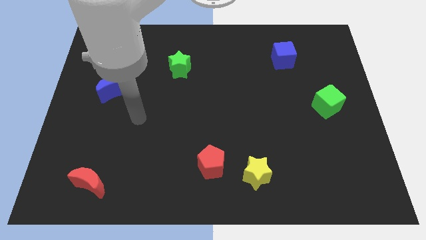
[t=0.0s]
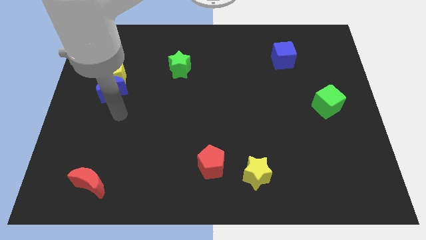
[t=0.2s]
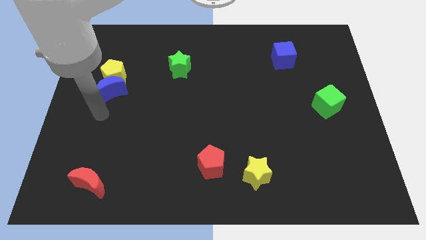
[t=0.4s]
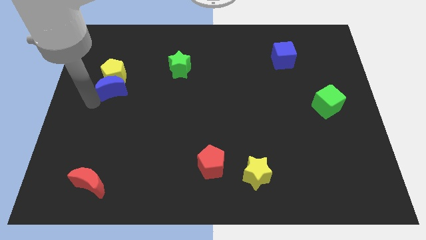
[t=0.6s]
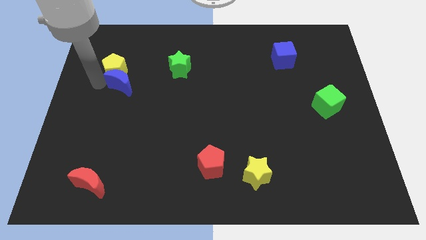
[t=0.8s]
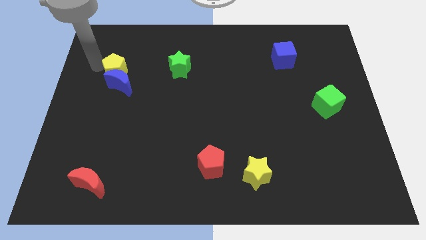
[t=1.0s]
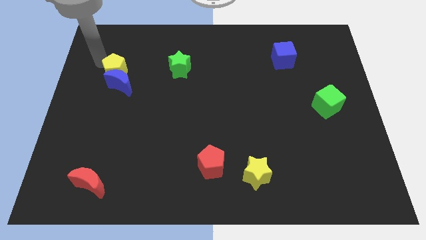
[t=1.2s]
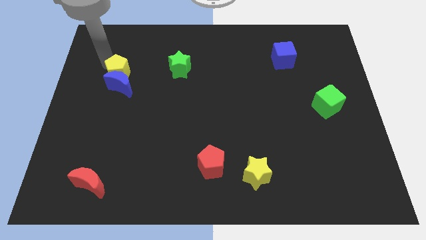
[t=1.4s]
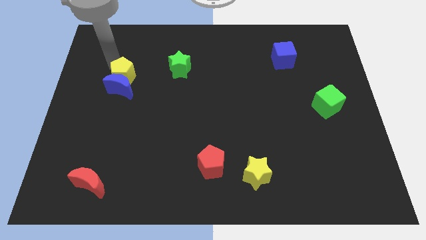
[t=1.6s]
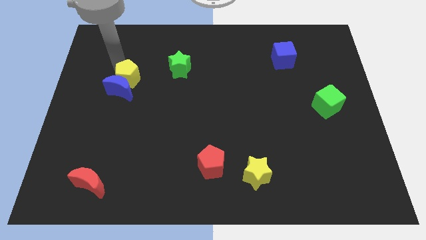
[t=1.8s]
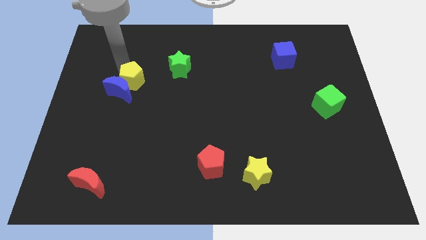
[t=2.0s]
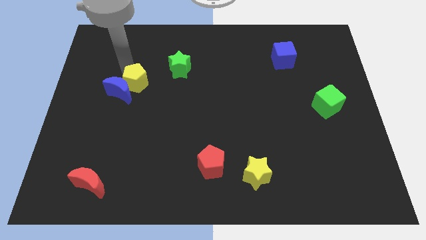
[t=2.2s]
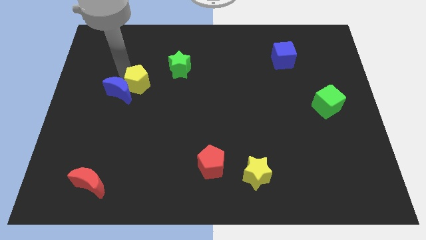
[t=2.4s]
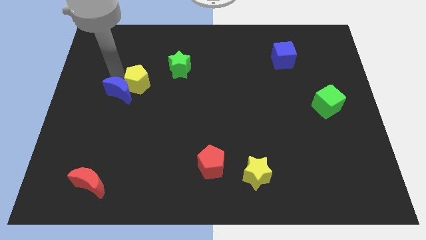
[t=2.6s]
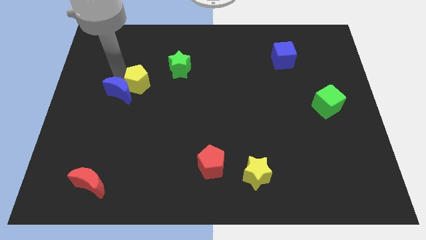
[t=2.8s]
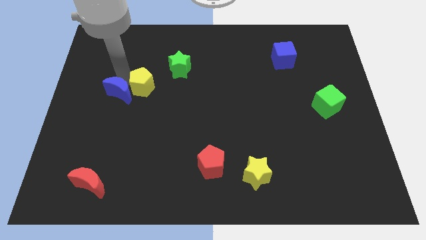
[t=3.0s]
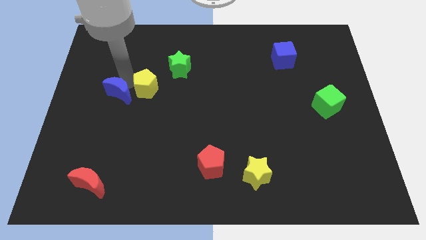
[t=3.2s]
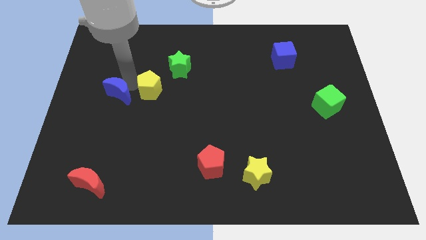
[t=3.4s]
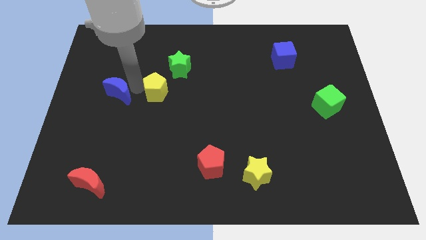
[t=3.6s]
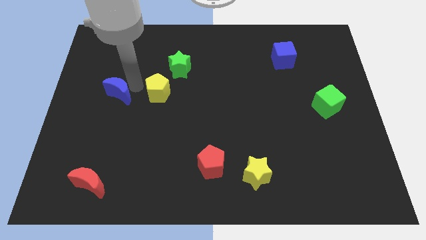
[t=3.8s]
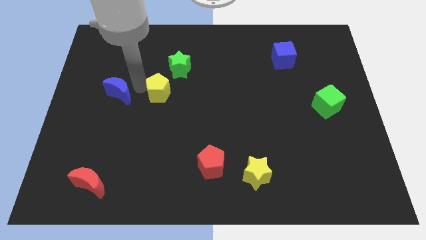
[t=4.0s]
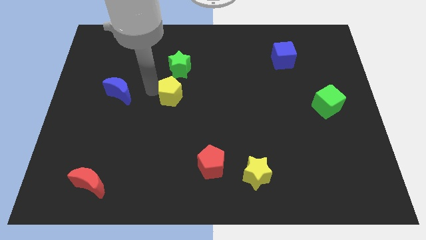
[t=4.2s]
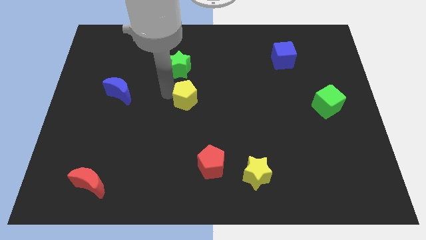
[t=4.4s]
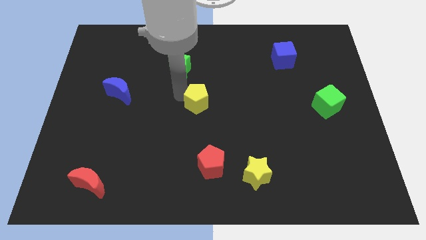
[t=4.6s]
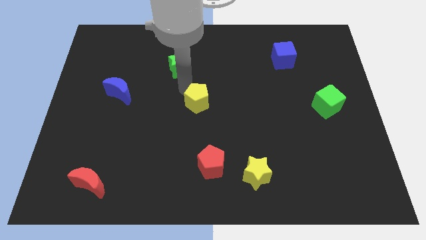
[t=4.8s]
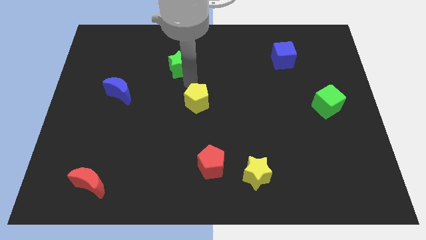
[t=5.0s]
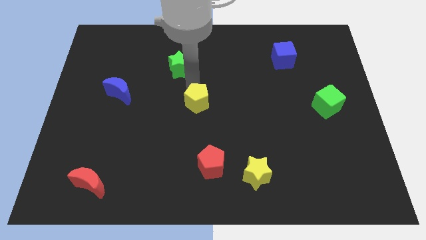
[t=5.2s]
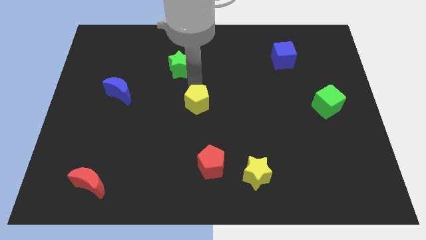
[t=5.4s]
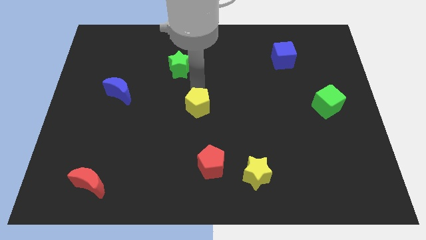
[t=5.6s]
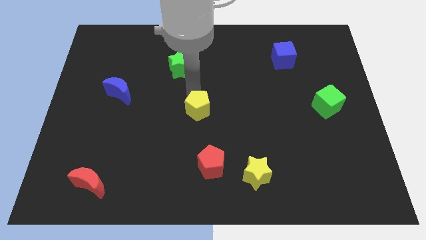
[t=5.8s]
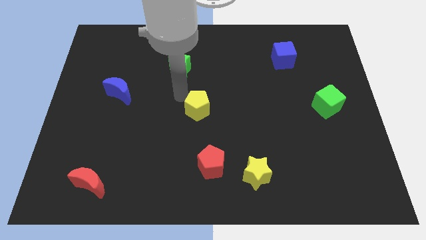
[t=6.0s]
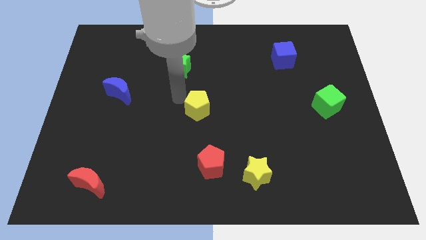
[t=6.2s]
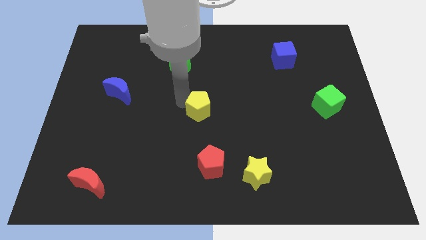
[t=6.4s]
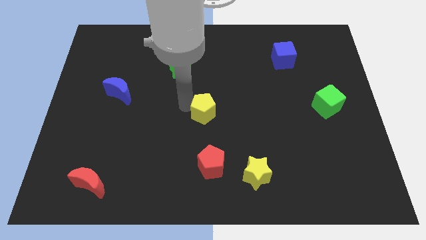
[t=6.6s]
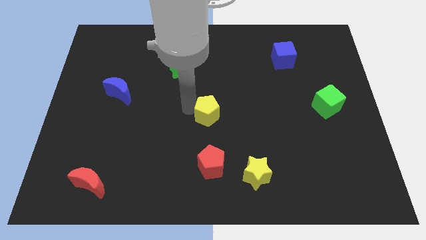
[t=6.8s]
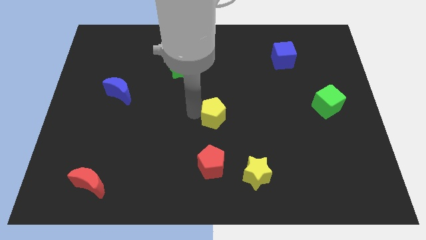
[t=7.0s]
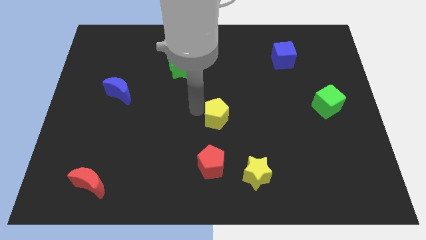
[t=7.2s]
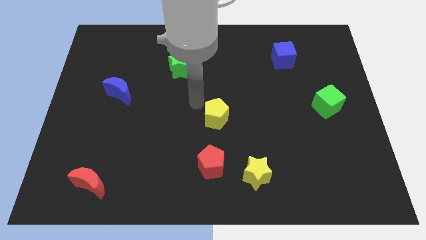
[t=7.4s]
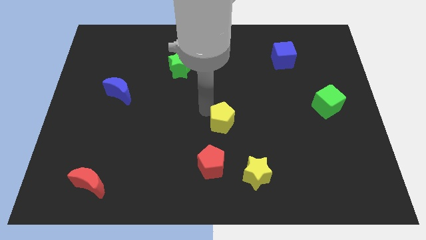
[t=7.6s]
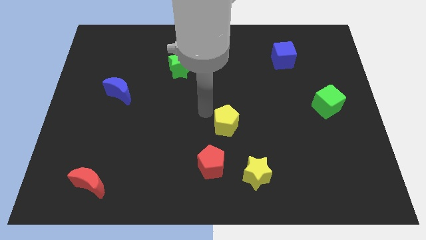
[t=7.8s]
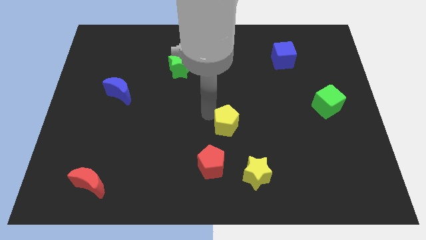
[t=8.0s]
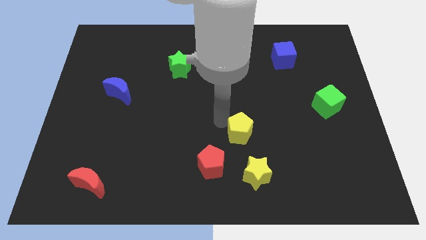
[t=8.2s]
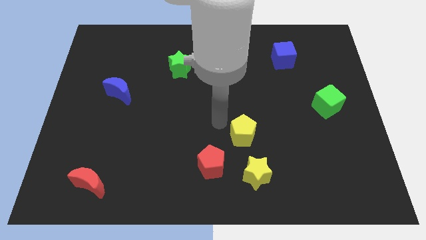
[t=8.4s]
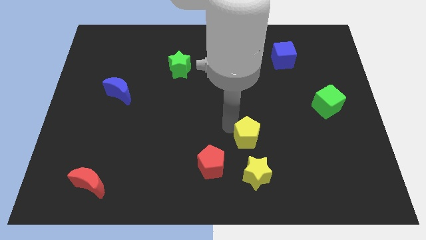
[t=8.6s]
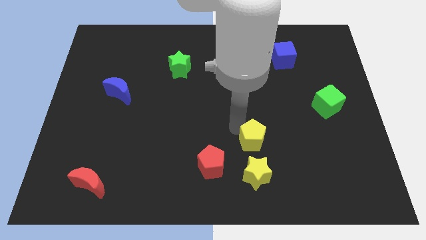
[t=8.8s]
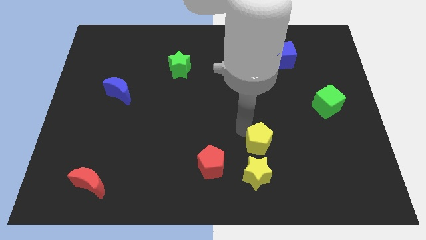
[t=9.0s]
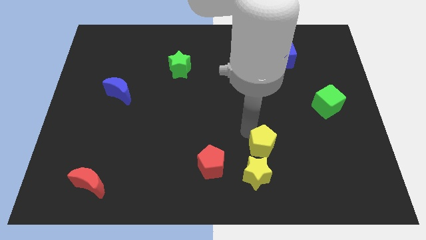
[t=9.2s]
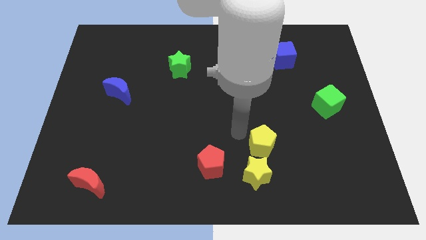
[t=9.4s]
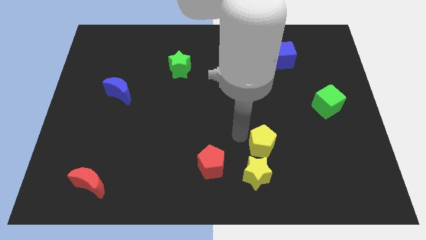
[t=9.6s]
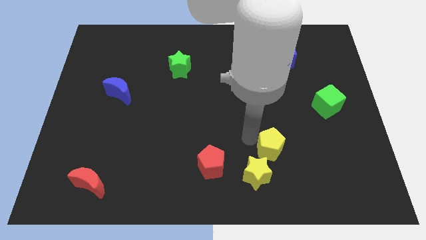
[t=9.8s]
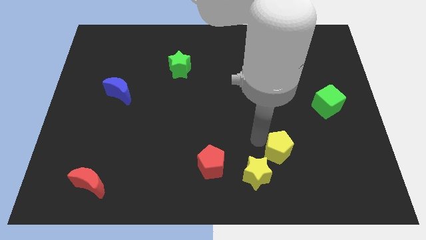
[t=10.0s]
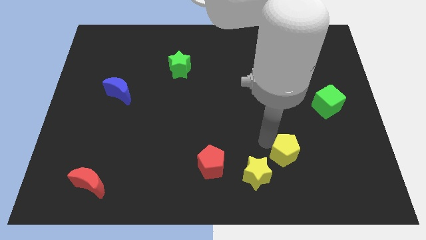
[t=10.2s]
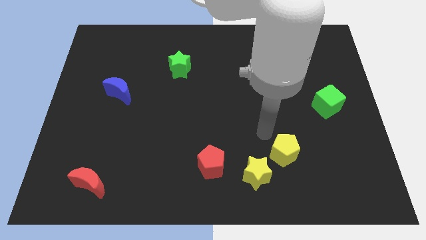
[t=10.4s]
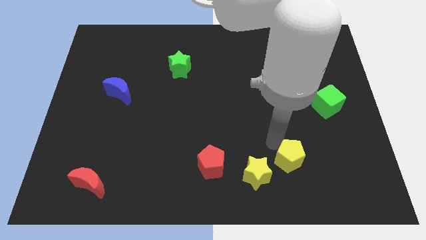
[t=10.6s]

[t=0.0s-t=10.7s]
move the yellow pentagon to the right side of the yellow star

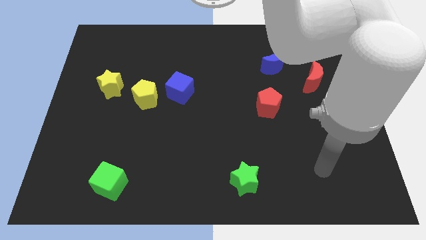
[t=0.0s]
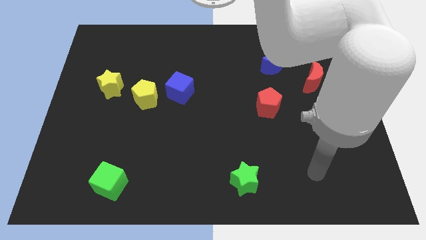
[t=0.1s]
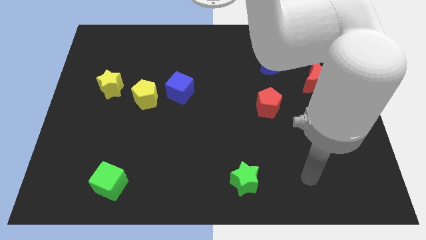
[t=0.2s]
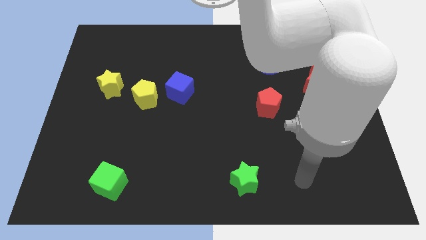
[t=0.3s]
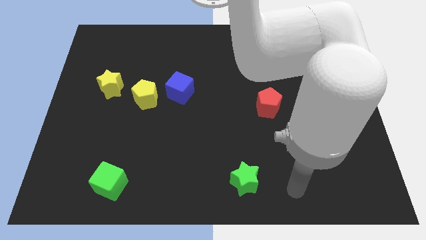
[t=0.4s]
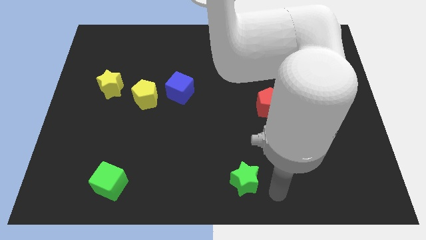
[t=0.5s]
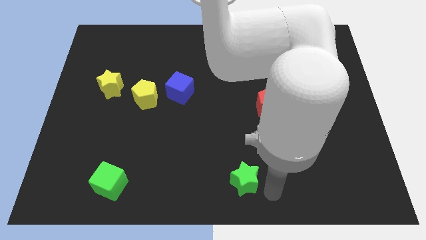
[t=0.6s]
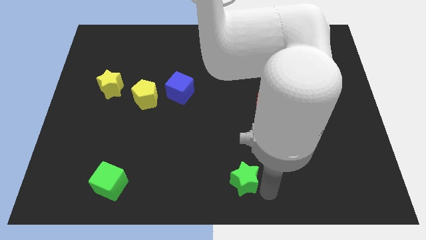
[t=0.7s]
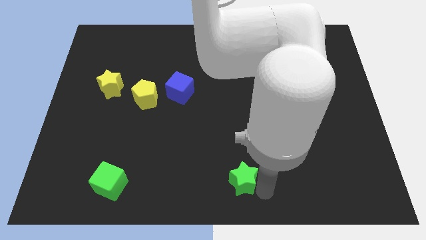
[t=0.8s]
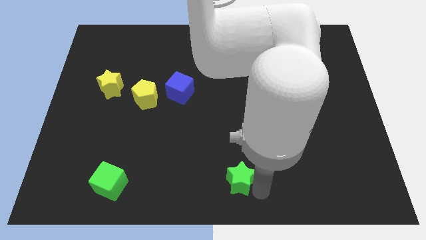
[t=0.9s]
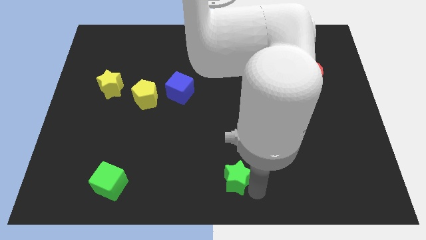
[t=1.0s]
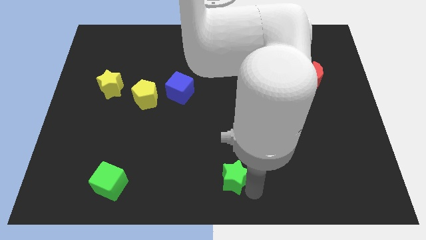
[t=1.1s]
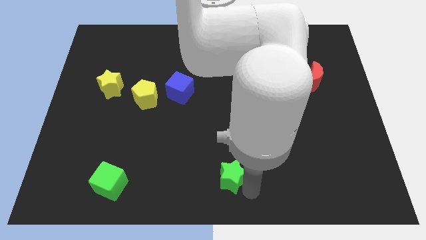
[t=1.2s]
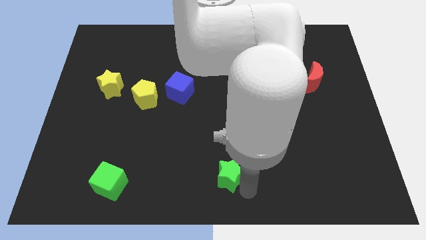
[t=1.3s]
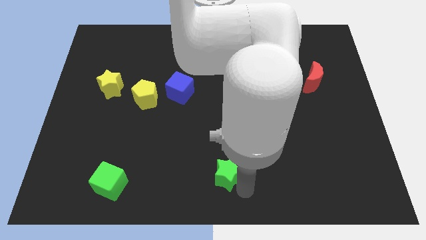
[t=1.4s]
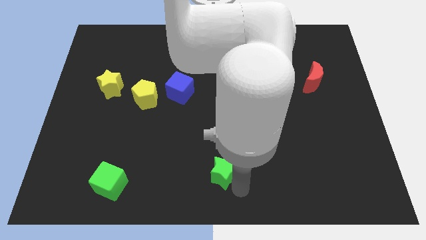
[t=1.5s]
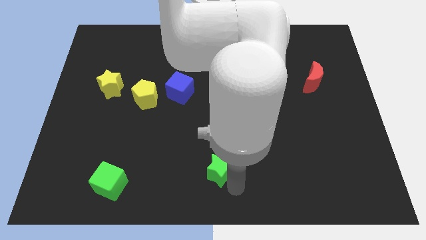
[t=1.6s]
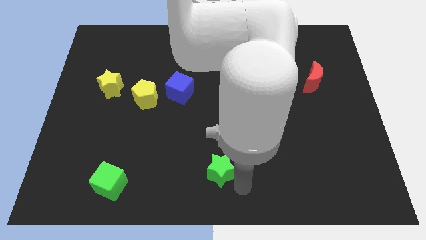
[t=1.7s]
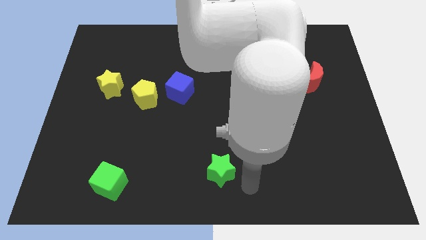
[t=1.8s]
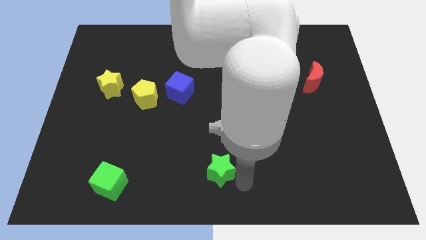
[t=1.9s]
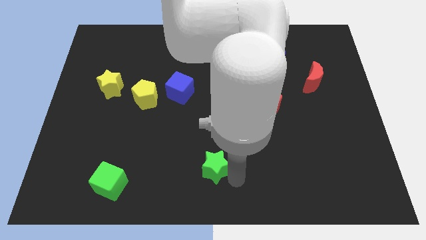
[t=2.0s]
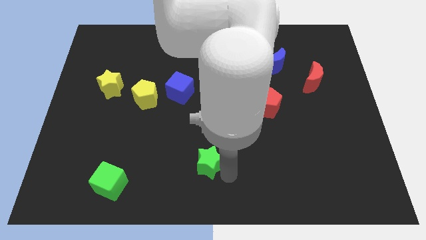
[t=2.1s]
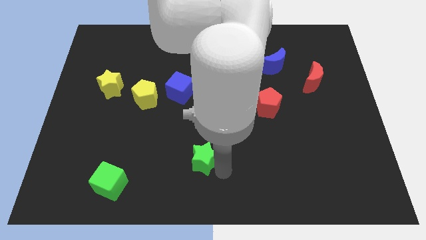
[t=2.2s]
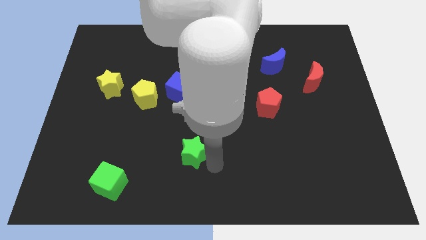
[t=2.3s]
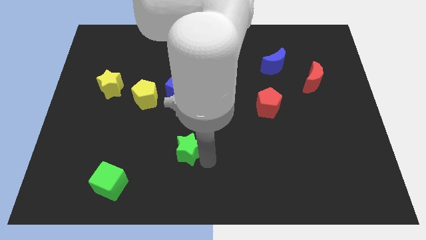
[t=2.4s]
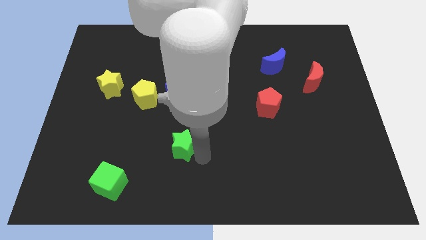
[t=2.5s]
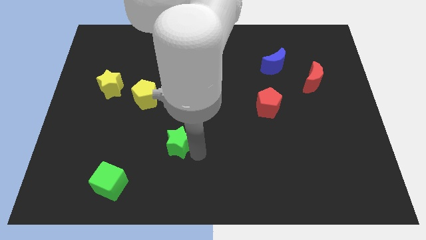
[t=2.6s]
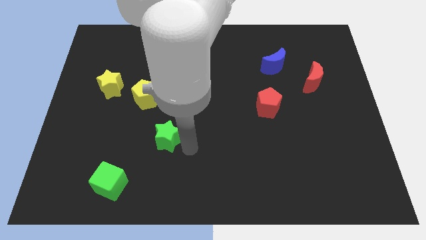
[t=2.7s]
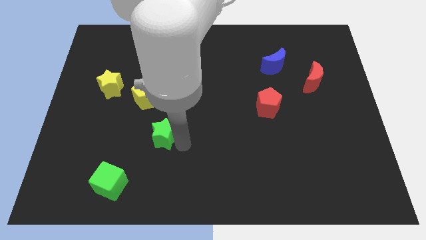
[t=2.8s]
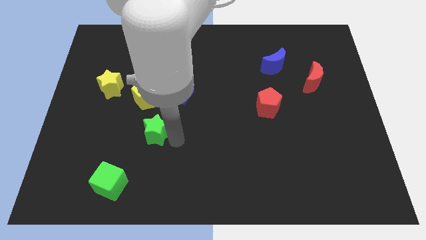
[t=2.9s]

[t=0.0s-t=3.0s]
move the green star below the yellow pentagon
